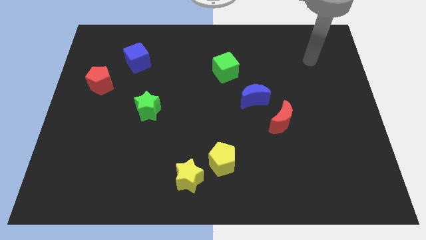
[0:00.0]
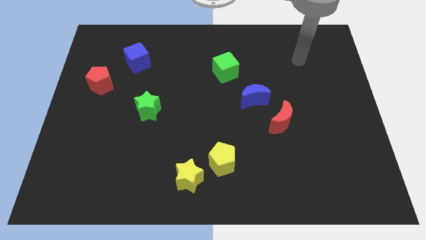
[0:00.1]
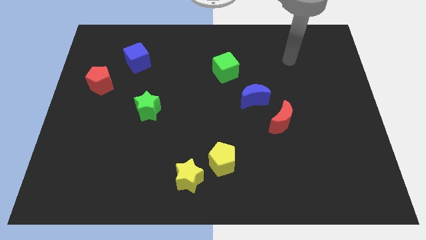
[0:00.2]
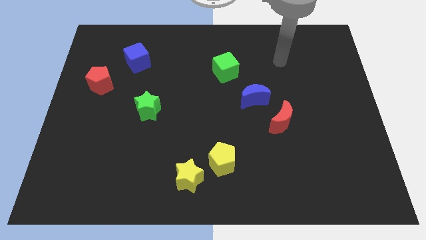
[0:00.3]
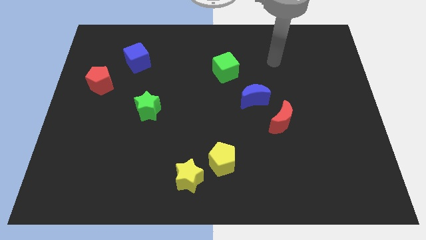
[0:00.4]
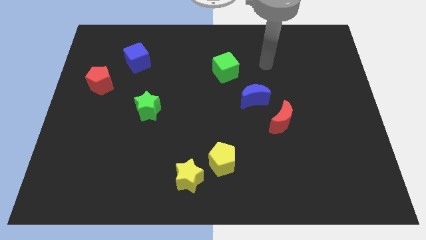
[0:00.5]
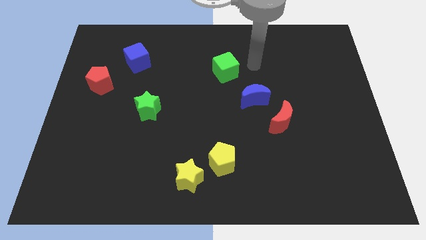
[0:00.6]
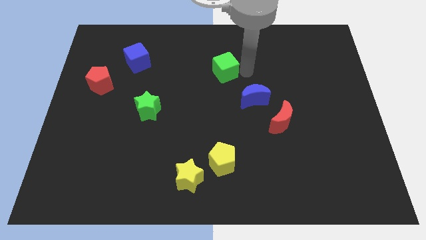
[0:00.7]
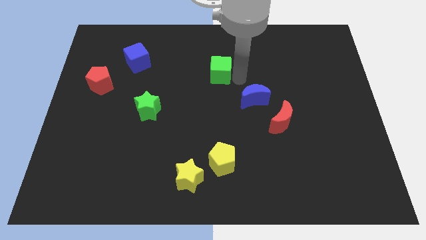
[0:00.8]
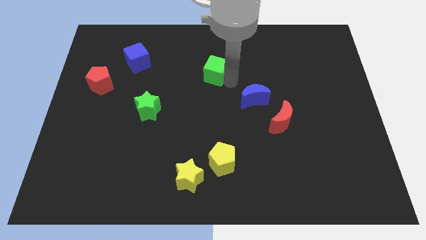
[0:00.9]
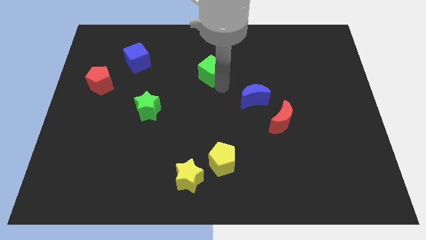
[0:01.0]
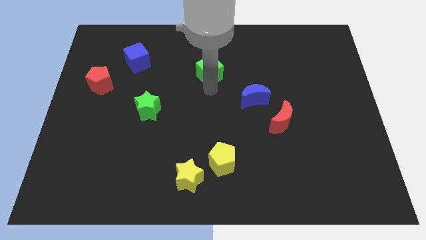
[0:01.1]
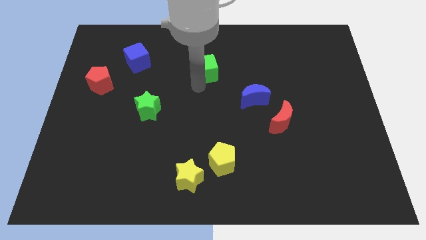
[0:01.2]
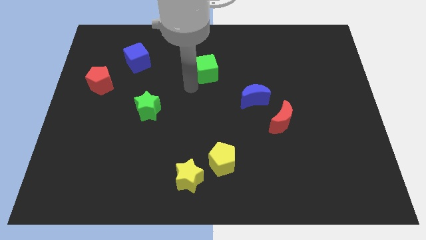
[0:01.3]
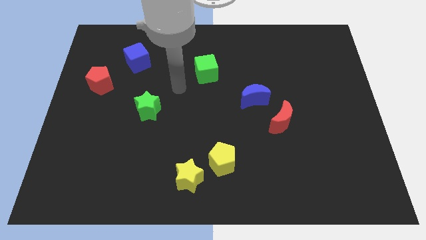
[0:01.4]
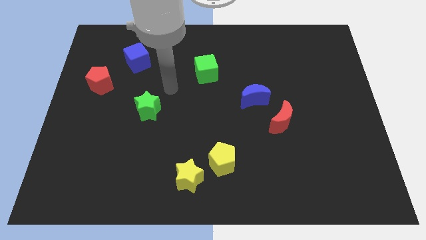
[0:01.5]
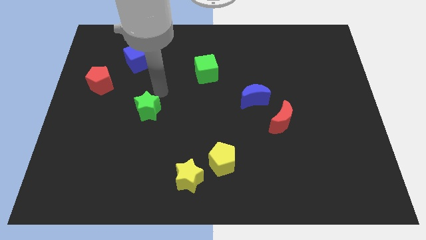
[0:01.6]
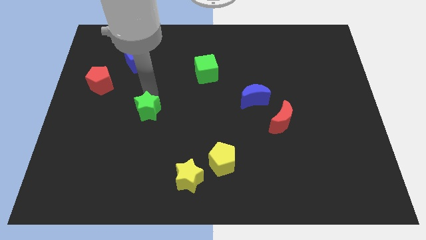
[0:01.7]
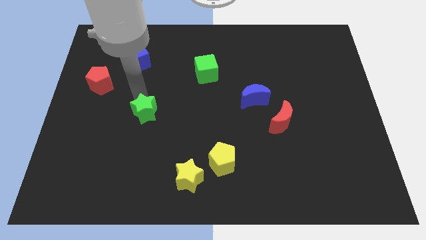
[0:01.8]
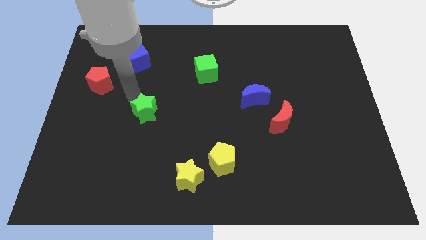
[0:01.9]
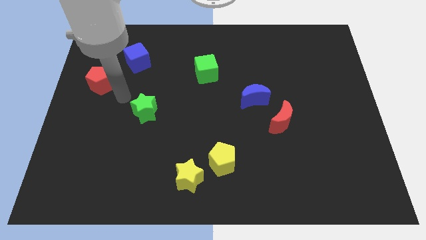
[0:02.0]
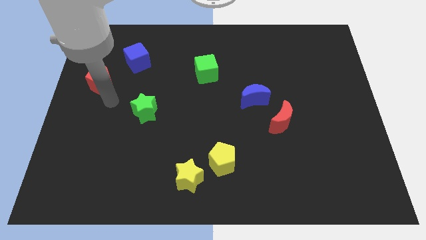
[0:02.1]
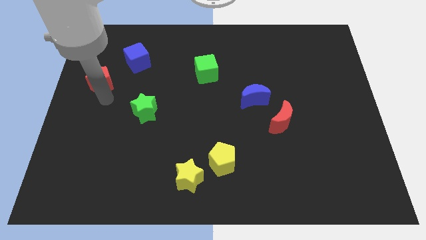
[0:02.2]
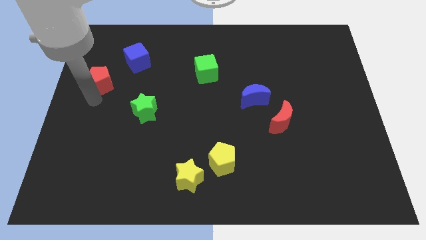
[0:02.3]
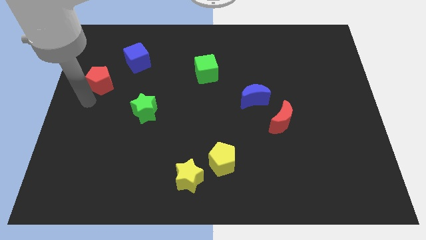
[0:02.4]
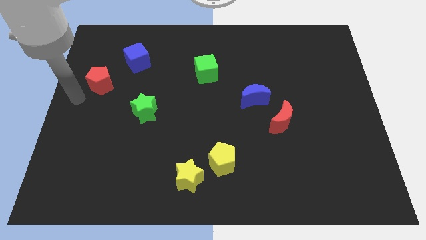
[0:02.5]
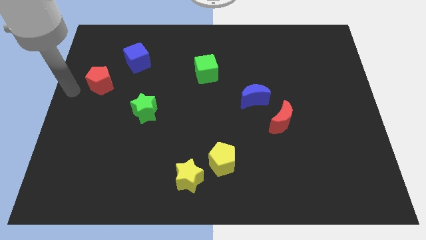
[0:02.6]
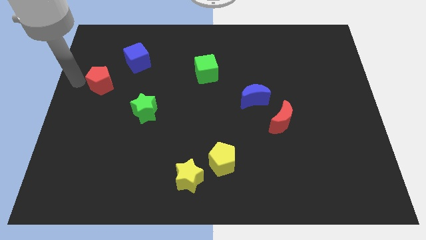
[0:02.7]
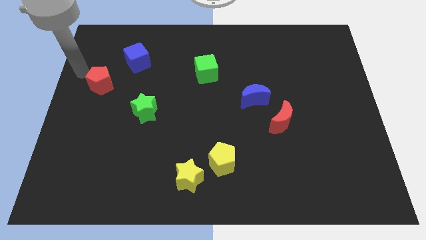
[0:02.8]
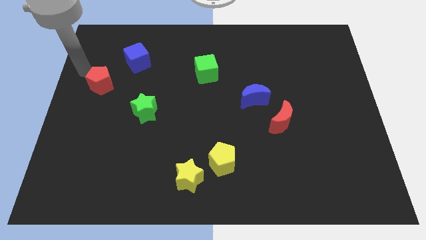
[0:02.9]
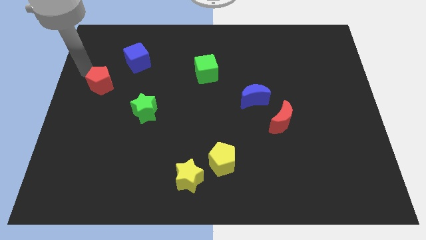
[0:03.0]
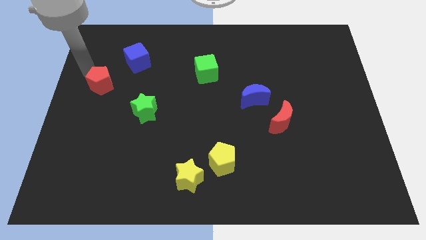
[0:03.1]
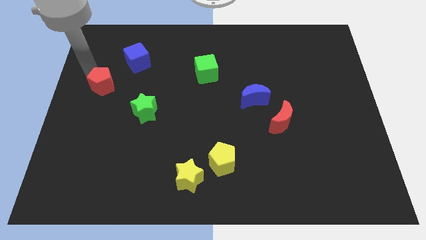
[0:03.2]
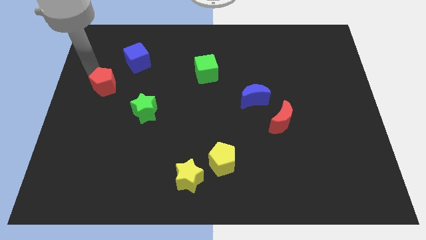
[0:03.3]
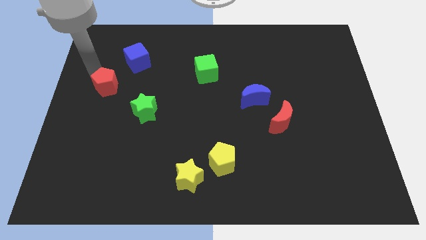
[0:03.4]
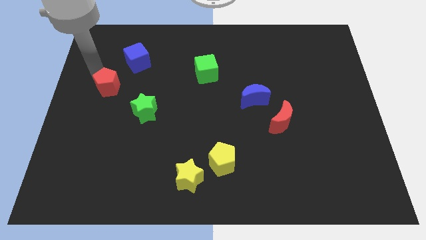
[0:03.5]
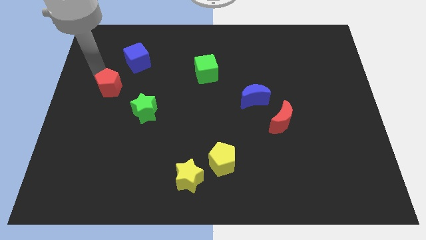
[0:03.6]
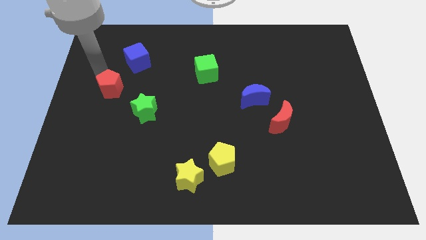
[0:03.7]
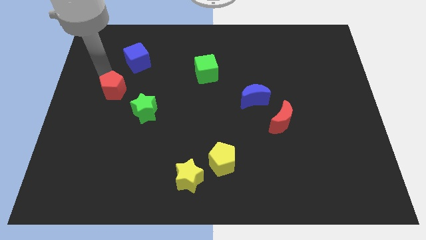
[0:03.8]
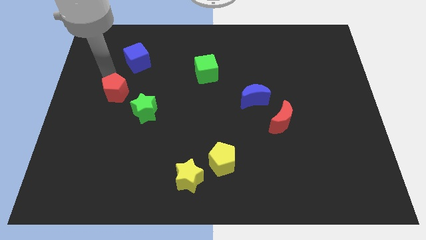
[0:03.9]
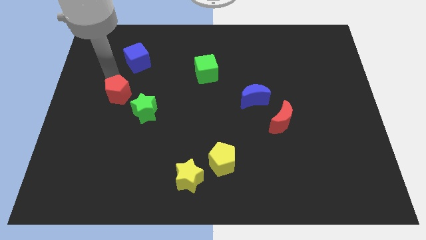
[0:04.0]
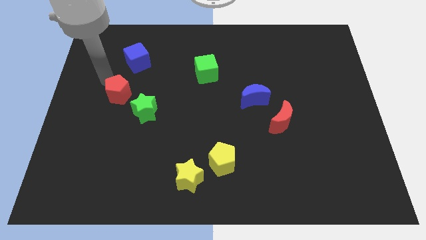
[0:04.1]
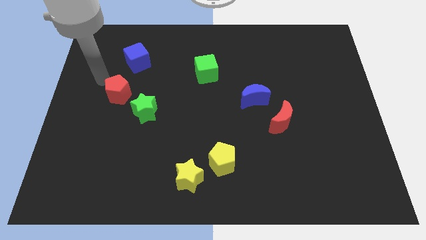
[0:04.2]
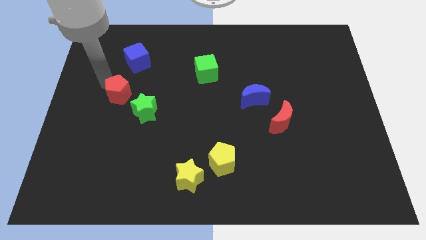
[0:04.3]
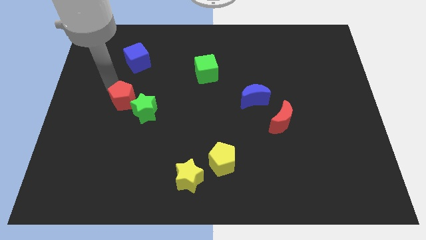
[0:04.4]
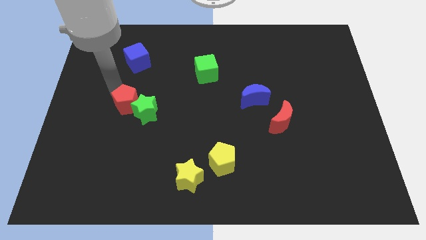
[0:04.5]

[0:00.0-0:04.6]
move the red pentagon towards the green star

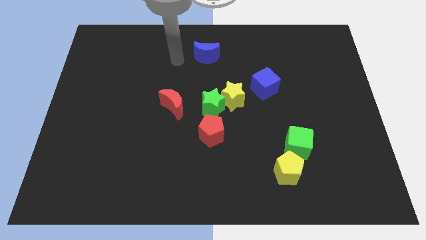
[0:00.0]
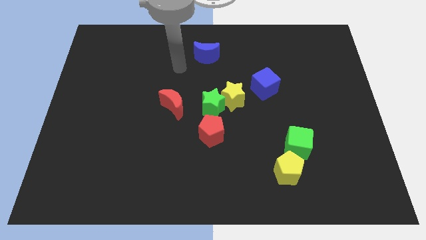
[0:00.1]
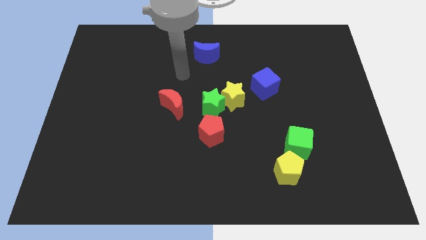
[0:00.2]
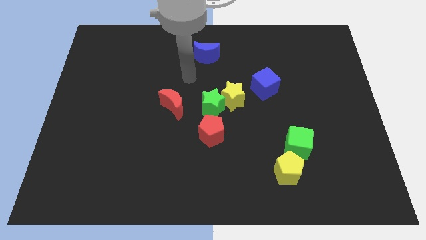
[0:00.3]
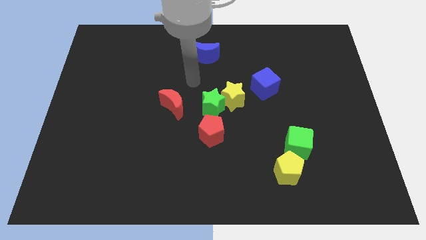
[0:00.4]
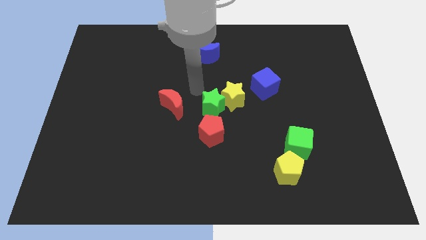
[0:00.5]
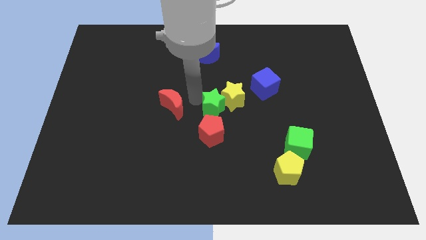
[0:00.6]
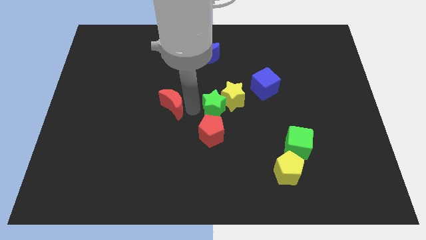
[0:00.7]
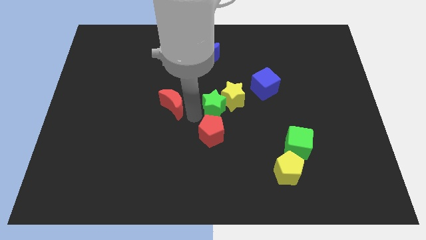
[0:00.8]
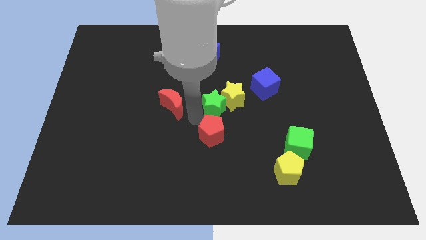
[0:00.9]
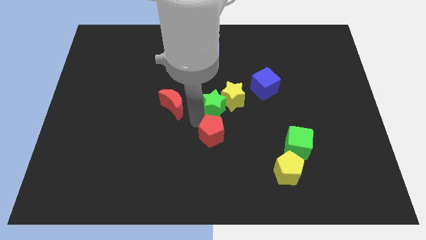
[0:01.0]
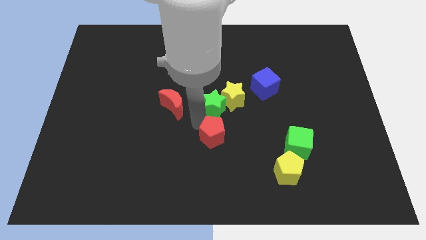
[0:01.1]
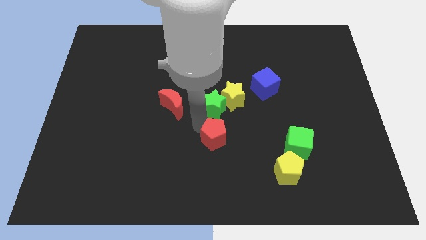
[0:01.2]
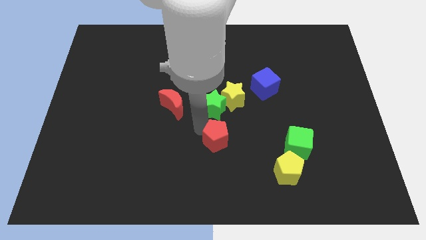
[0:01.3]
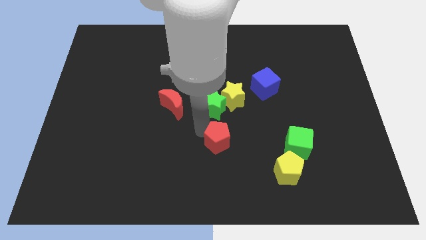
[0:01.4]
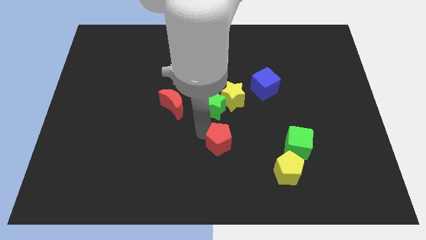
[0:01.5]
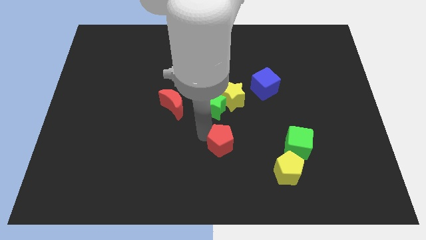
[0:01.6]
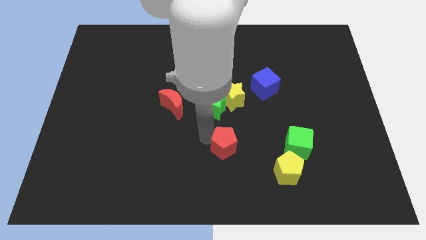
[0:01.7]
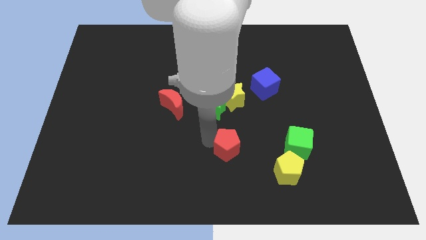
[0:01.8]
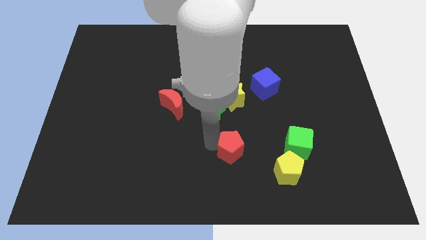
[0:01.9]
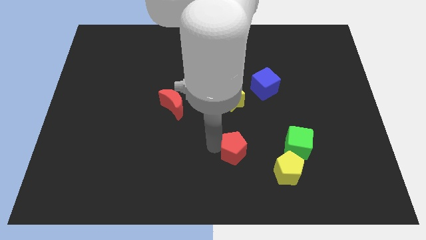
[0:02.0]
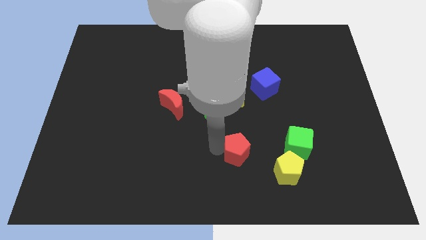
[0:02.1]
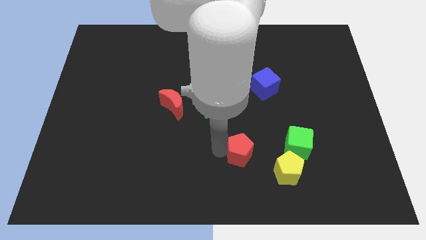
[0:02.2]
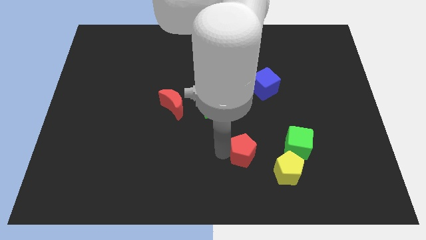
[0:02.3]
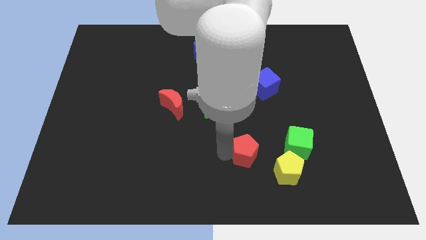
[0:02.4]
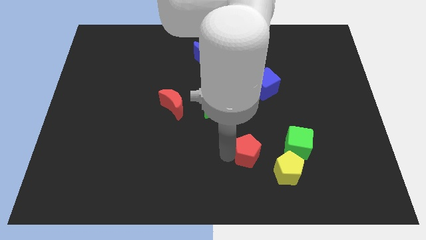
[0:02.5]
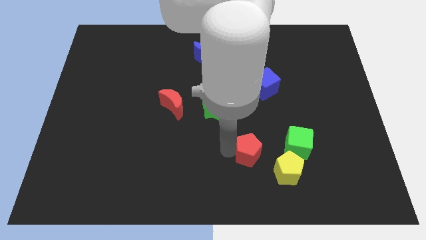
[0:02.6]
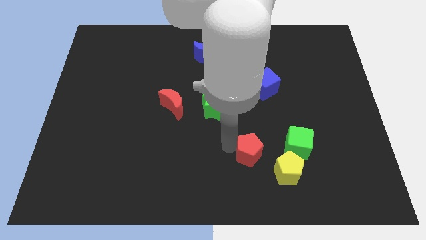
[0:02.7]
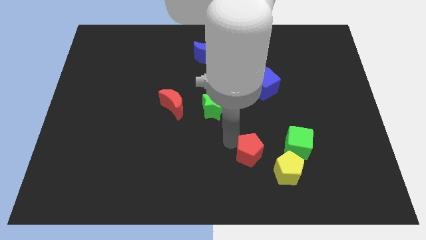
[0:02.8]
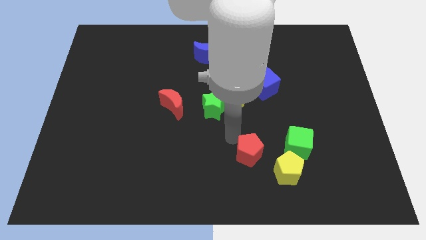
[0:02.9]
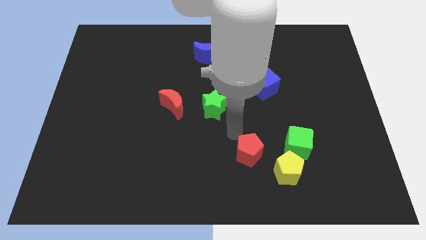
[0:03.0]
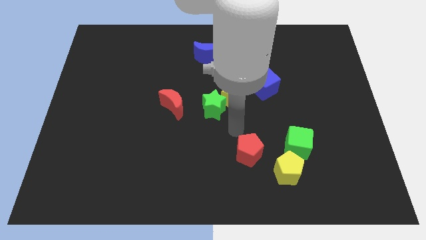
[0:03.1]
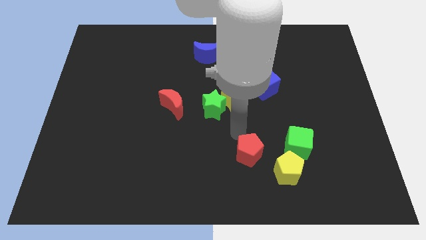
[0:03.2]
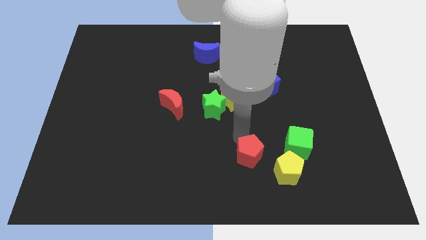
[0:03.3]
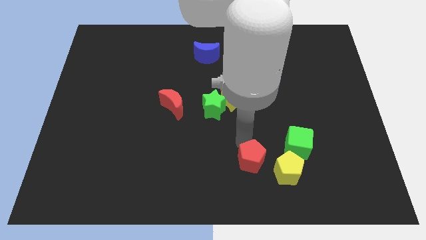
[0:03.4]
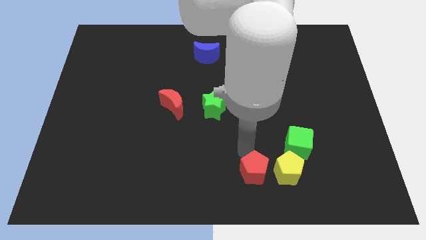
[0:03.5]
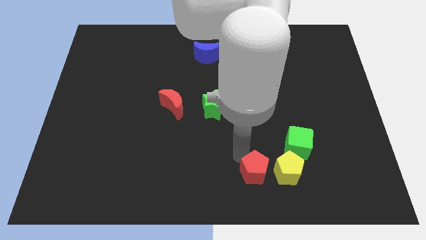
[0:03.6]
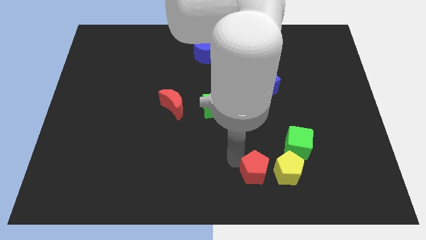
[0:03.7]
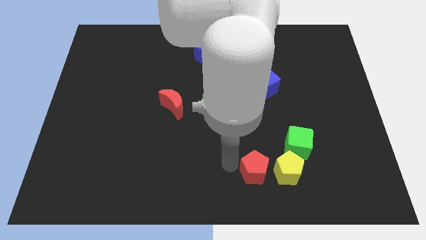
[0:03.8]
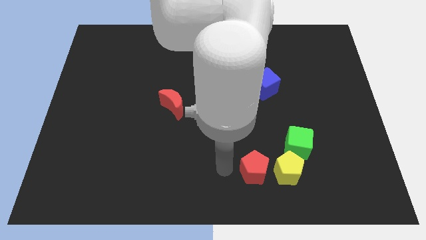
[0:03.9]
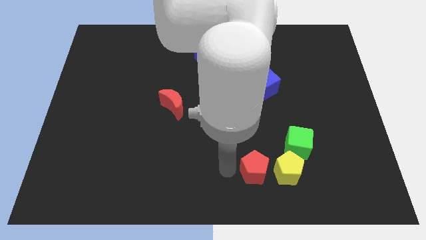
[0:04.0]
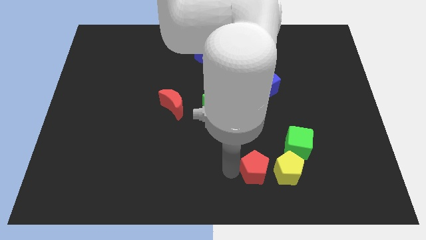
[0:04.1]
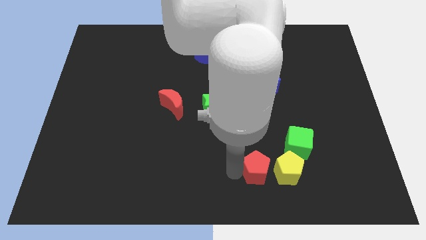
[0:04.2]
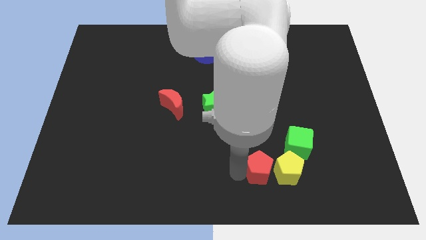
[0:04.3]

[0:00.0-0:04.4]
move the red pentagon to the yellow pentagon
